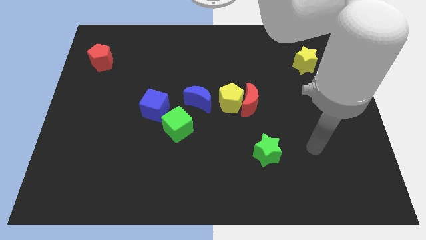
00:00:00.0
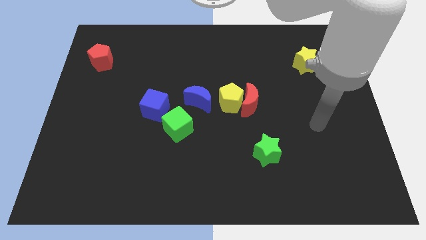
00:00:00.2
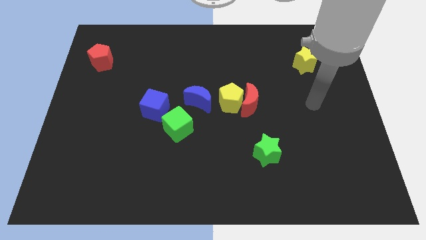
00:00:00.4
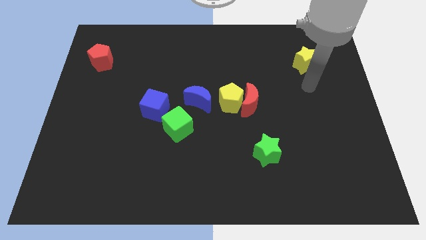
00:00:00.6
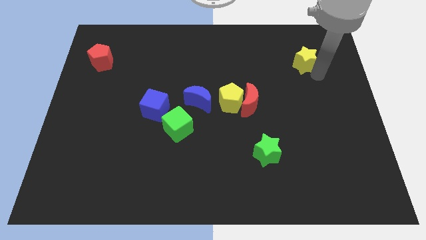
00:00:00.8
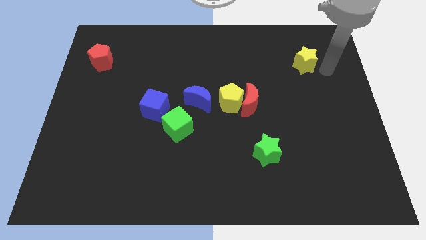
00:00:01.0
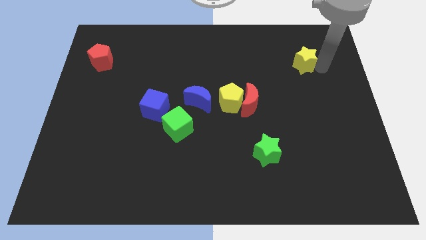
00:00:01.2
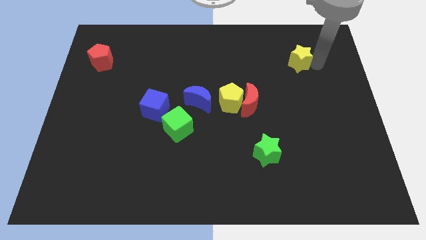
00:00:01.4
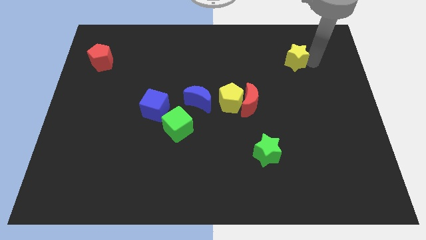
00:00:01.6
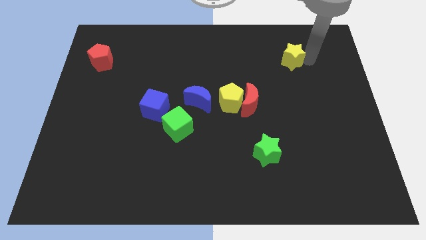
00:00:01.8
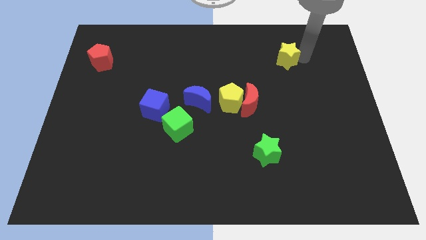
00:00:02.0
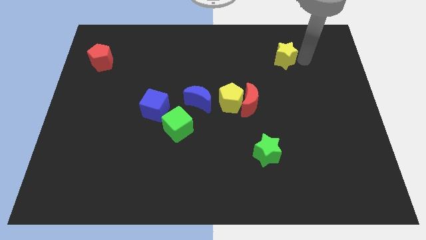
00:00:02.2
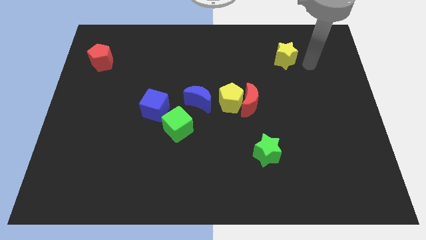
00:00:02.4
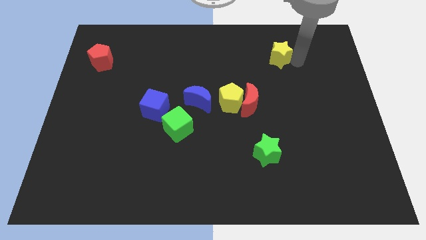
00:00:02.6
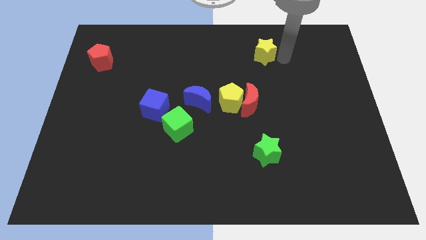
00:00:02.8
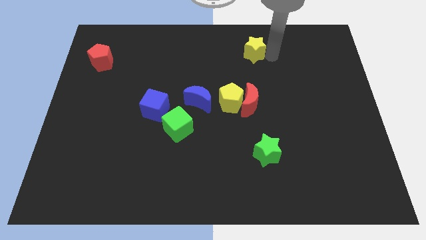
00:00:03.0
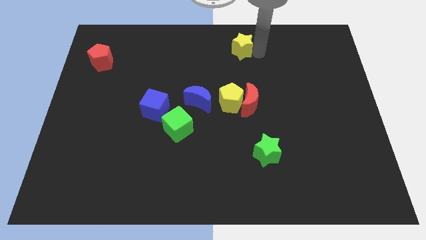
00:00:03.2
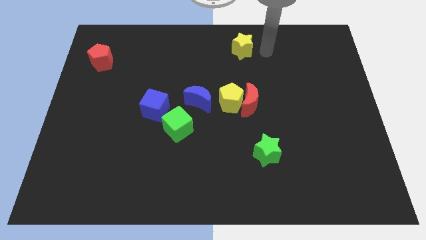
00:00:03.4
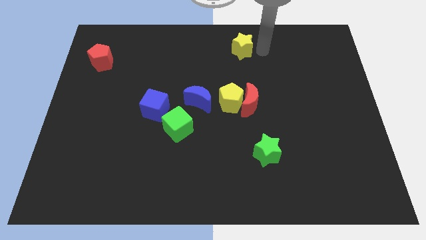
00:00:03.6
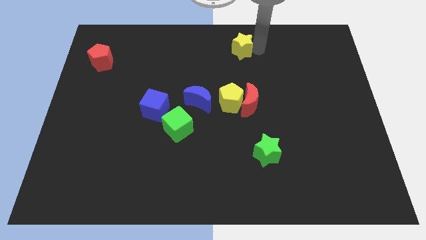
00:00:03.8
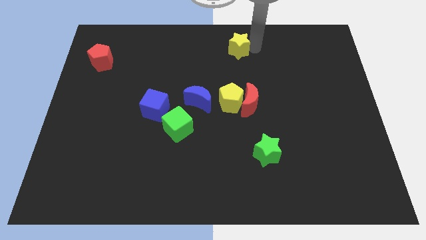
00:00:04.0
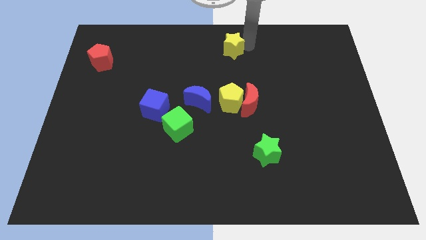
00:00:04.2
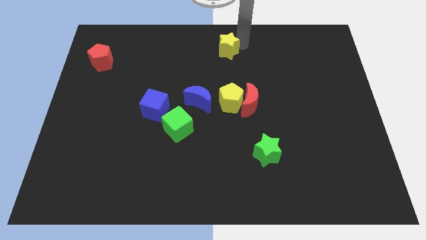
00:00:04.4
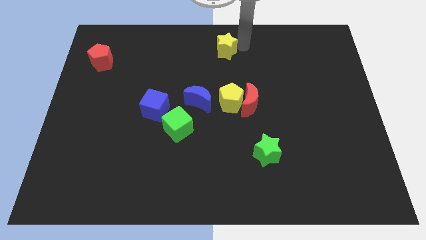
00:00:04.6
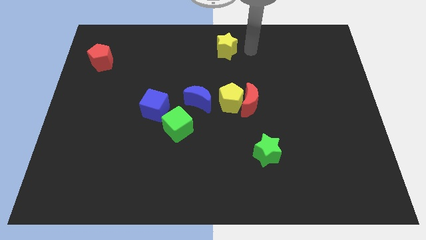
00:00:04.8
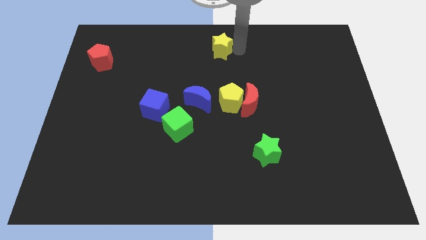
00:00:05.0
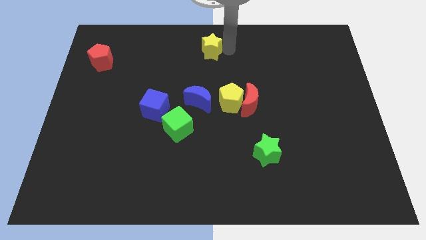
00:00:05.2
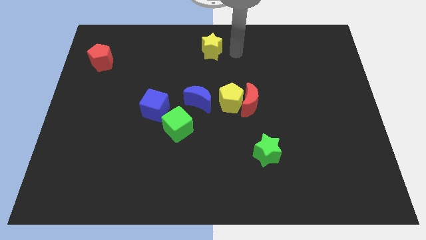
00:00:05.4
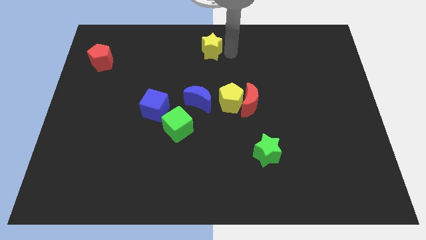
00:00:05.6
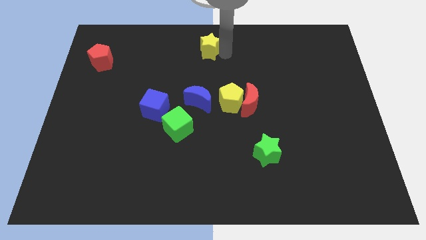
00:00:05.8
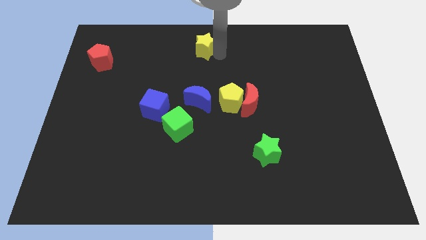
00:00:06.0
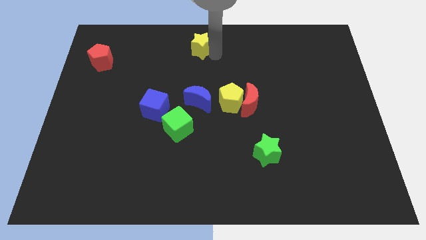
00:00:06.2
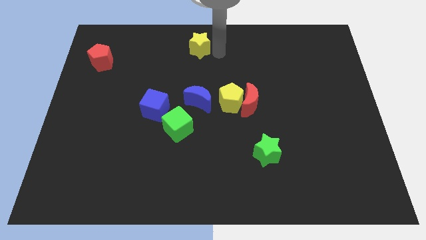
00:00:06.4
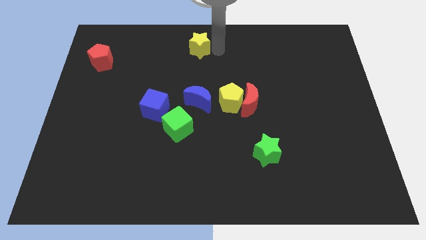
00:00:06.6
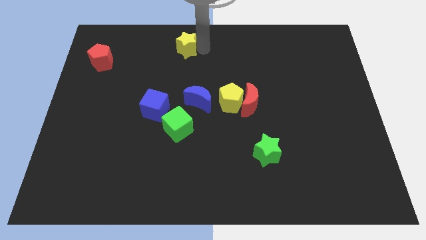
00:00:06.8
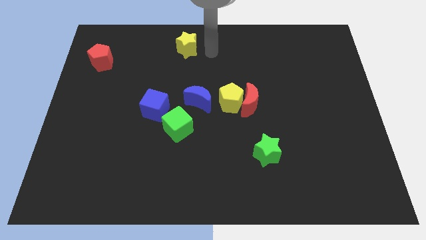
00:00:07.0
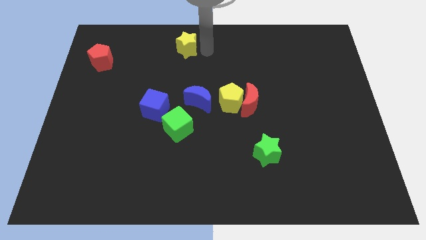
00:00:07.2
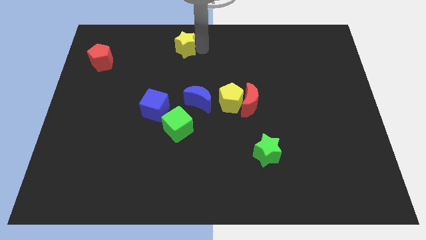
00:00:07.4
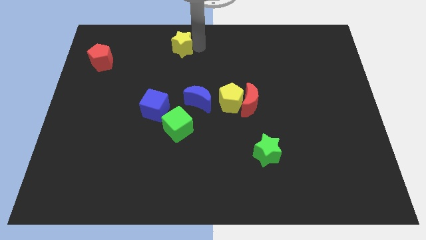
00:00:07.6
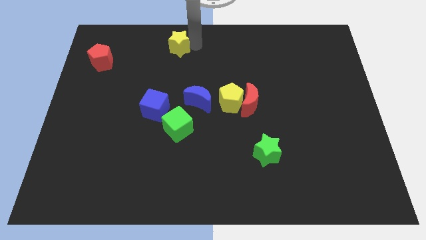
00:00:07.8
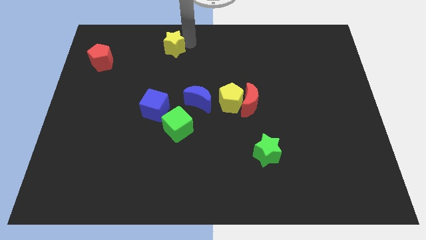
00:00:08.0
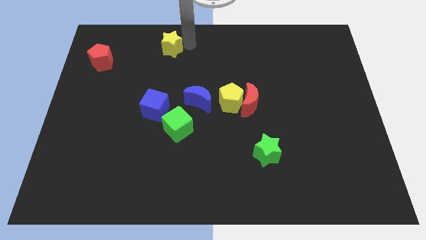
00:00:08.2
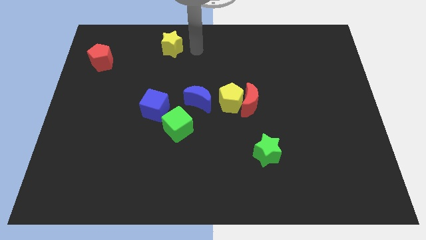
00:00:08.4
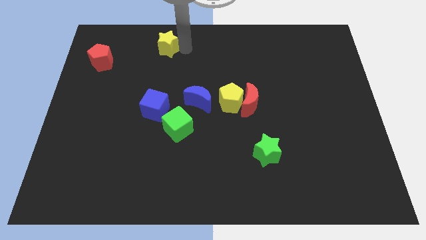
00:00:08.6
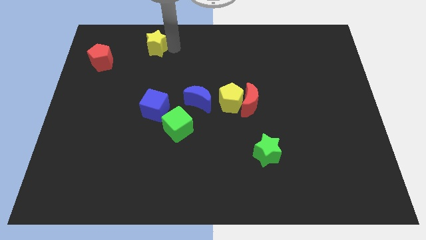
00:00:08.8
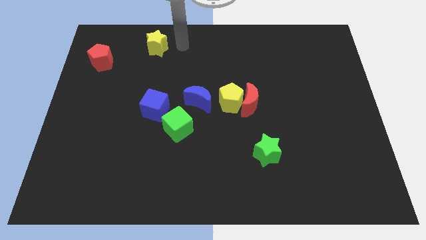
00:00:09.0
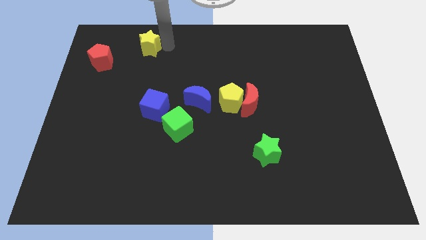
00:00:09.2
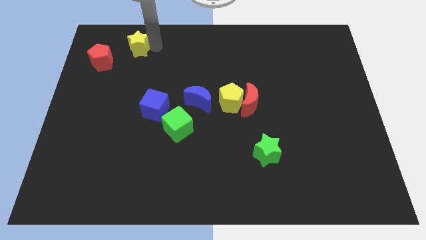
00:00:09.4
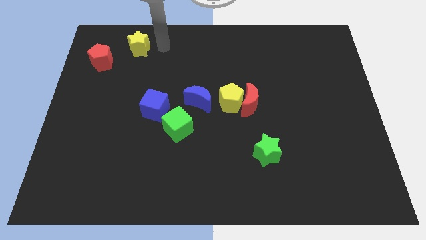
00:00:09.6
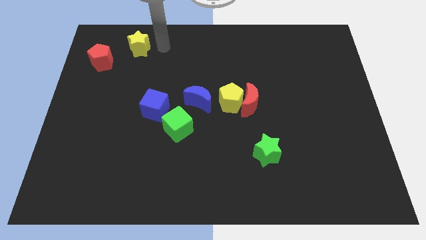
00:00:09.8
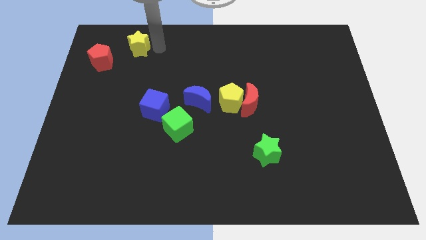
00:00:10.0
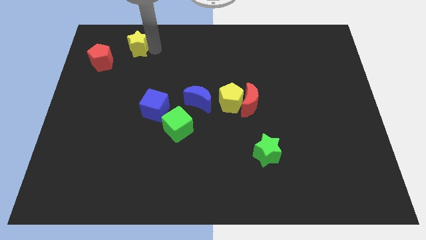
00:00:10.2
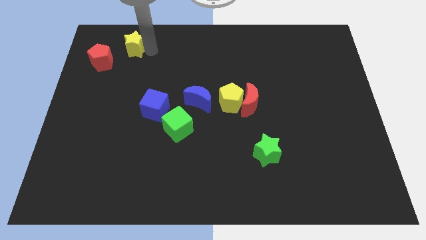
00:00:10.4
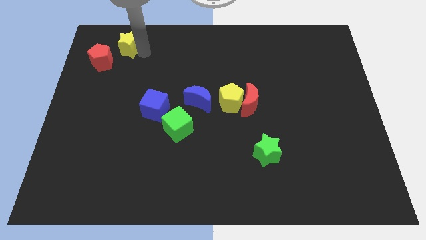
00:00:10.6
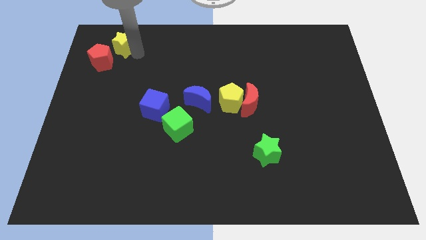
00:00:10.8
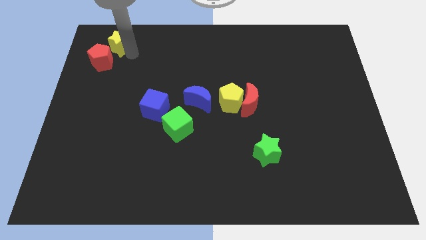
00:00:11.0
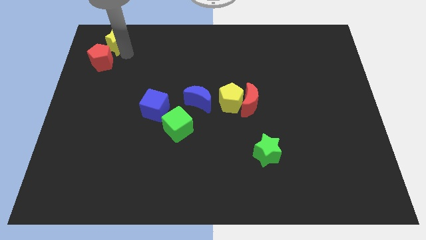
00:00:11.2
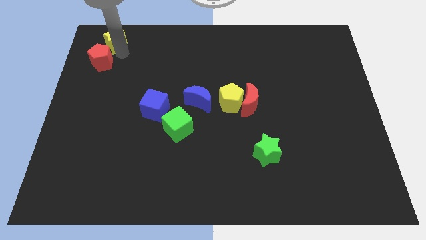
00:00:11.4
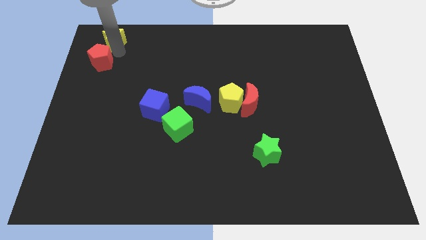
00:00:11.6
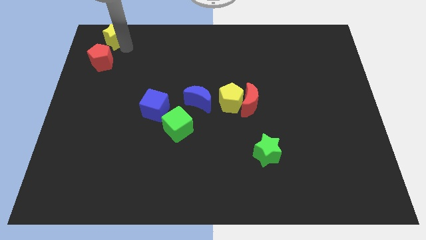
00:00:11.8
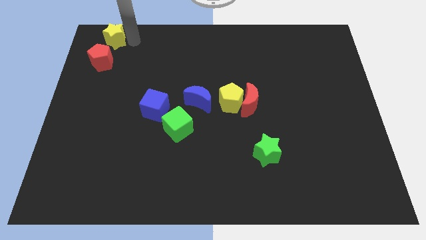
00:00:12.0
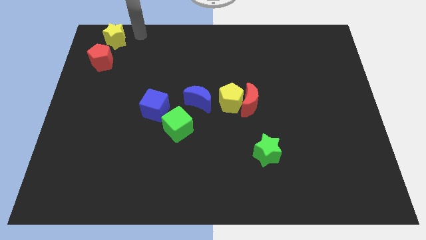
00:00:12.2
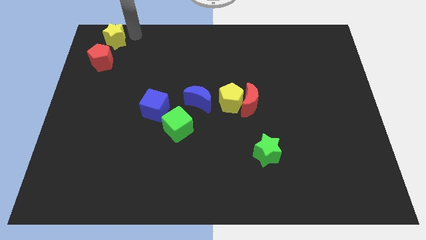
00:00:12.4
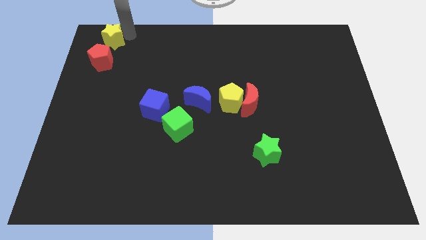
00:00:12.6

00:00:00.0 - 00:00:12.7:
push the yellow star to the top left
